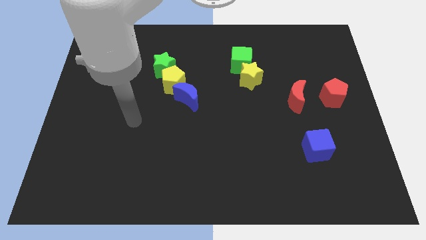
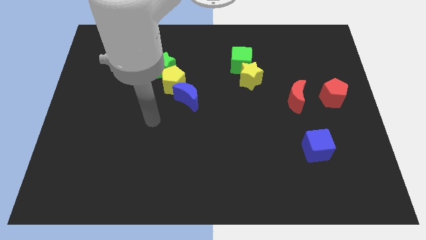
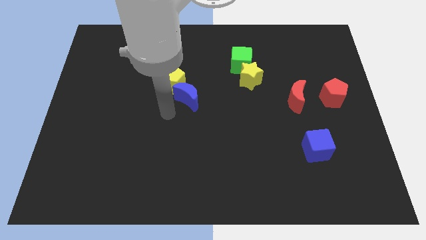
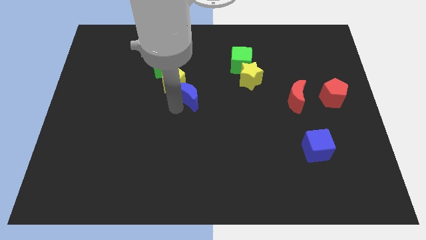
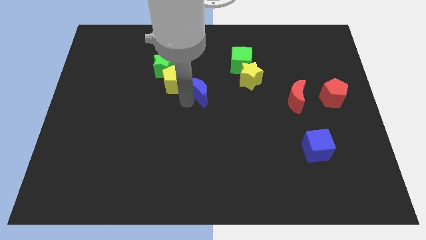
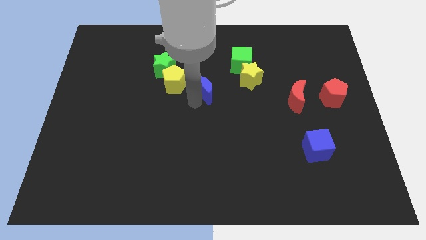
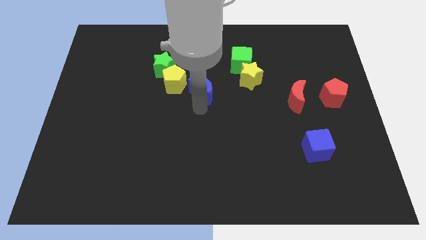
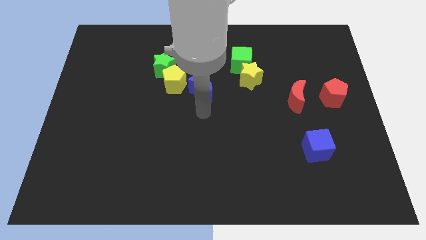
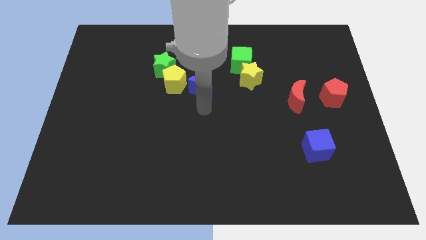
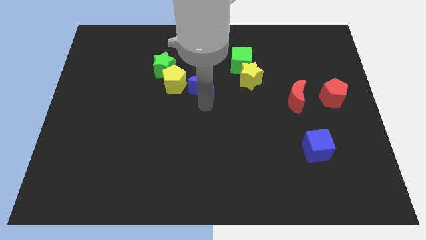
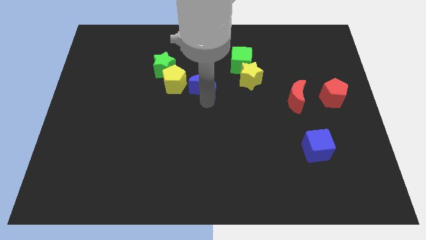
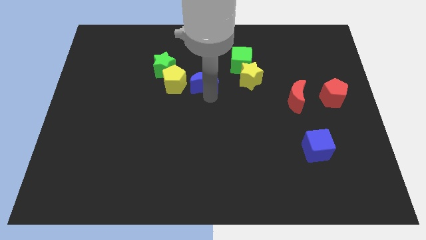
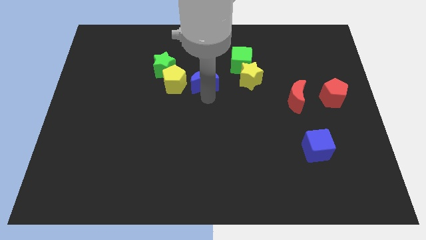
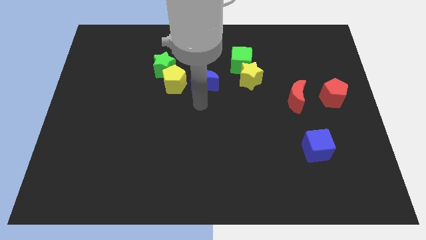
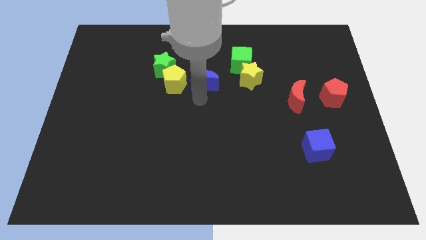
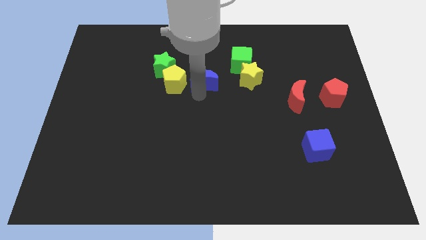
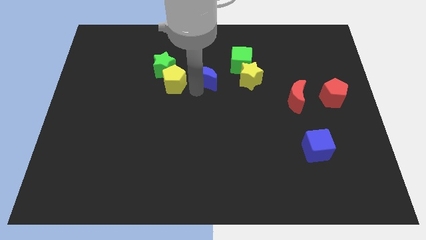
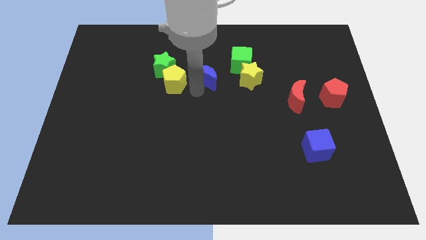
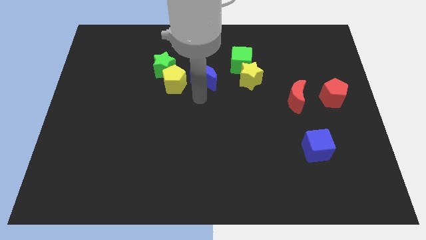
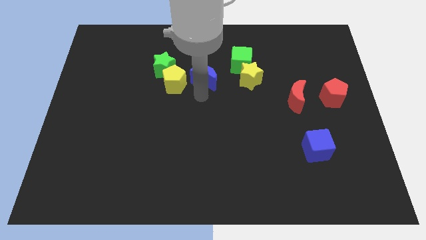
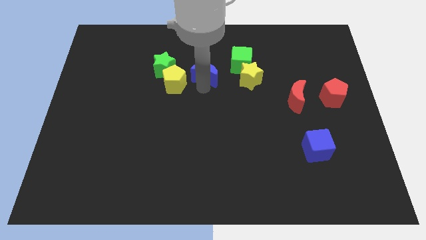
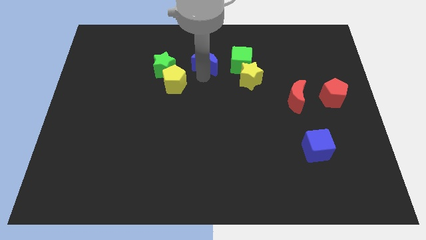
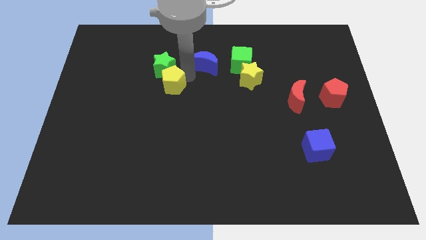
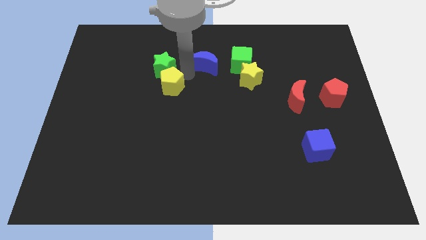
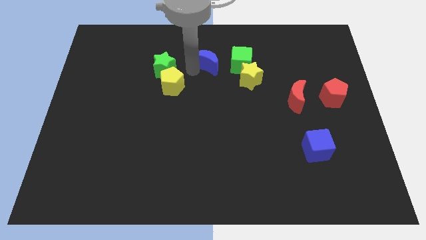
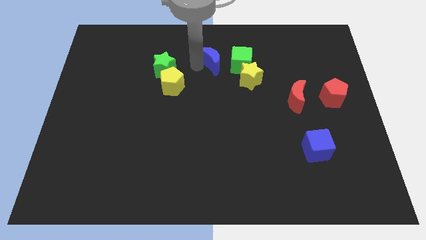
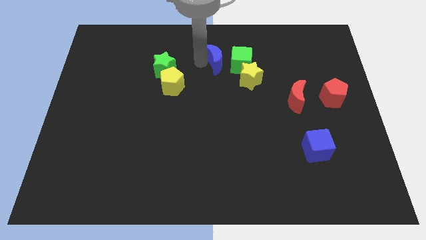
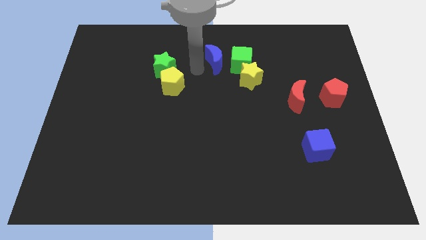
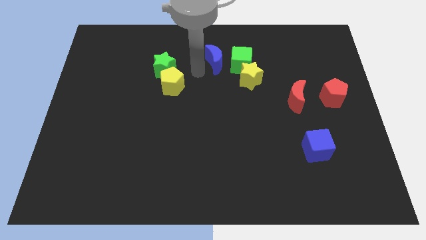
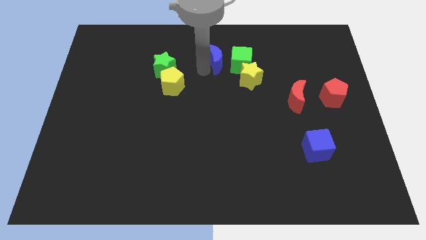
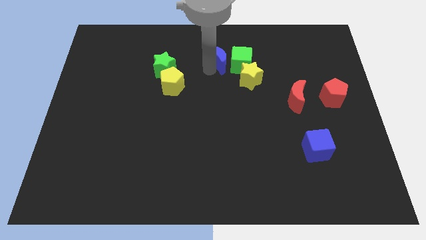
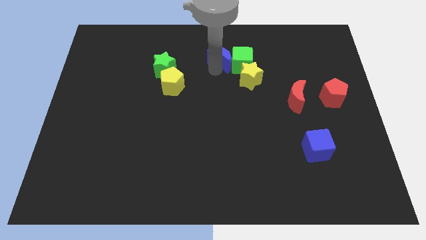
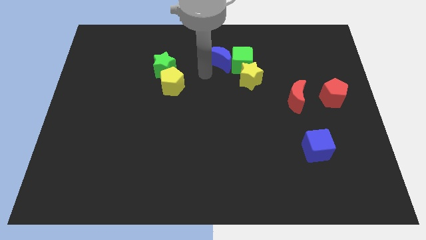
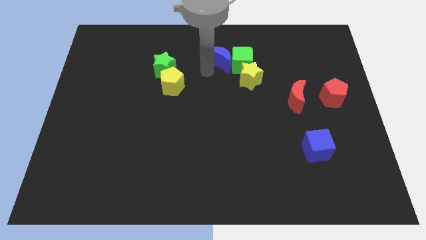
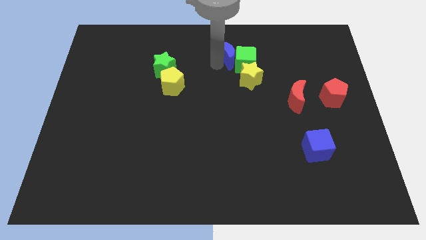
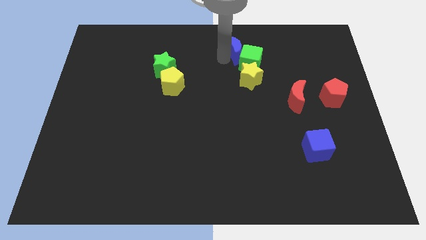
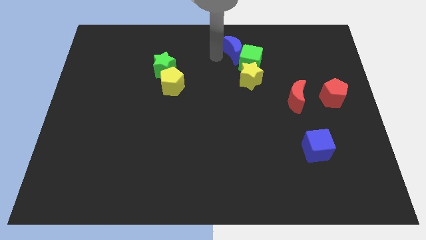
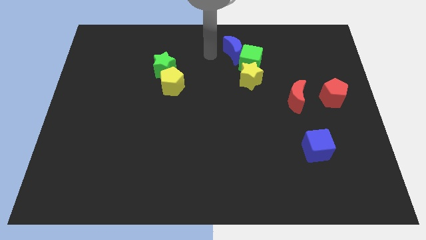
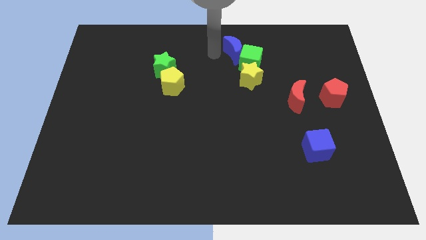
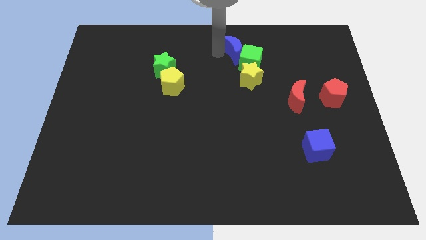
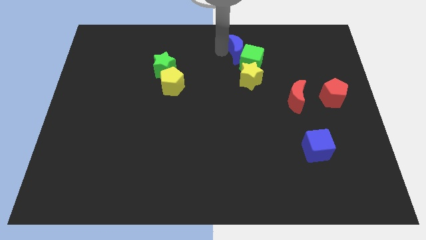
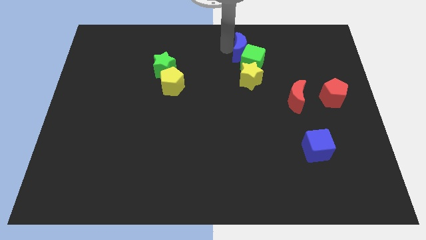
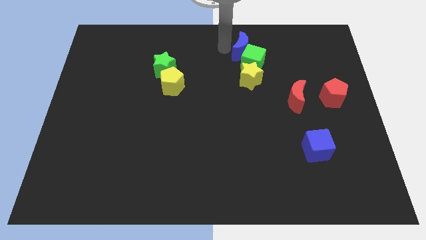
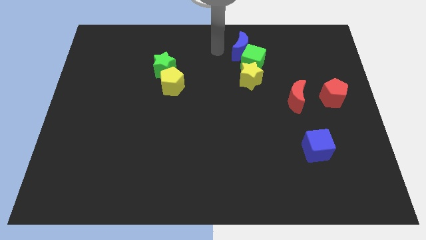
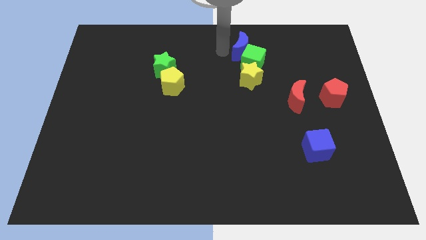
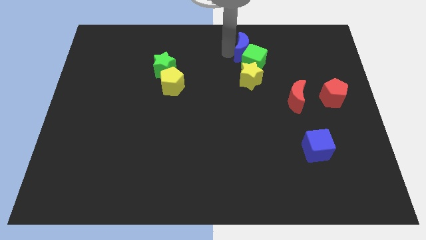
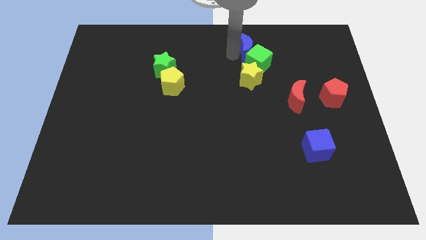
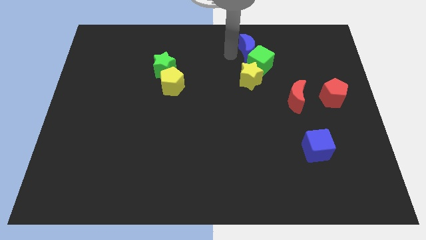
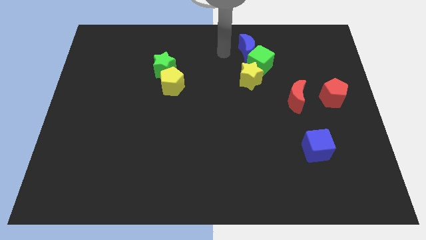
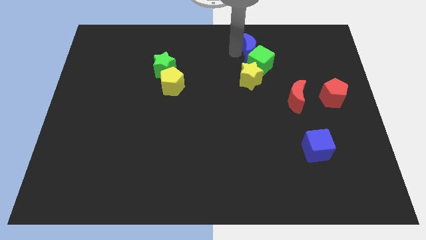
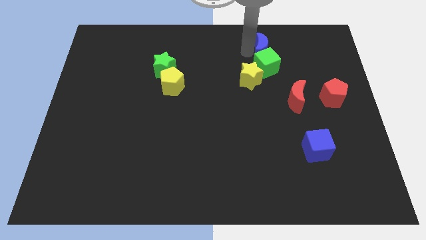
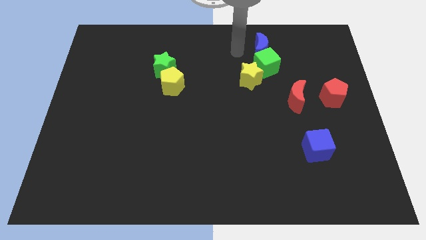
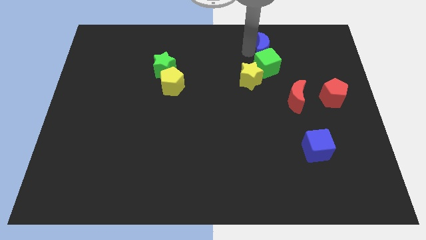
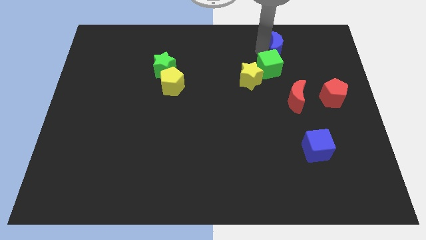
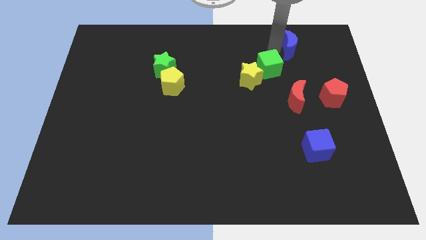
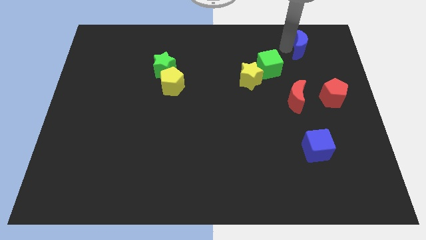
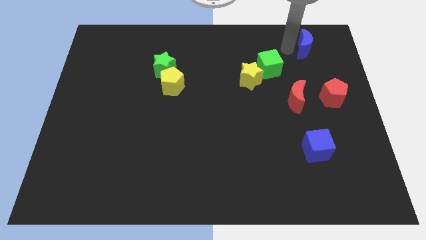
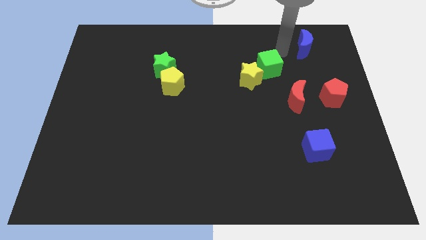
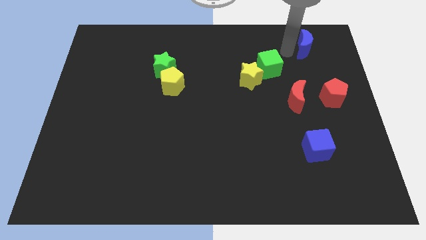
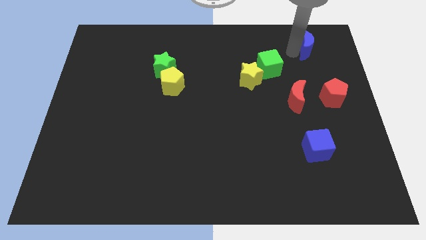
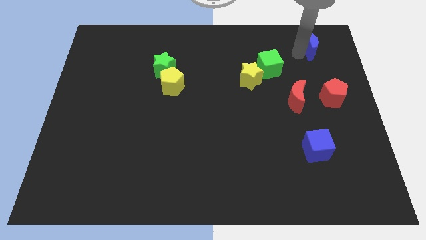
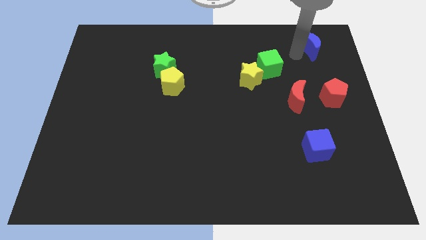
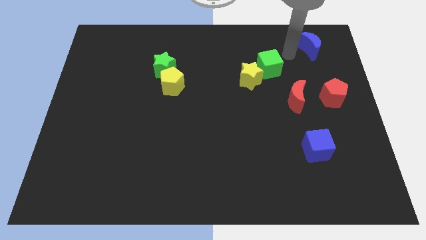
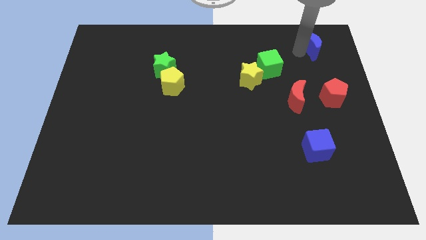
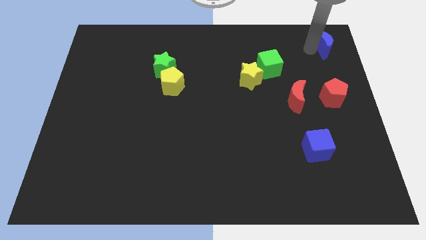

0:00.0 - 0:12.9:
put the blue moon to the top right
